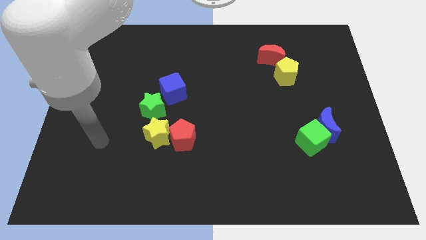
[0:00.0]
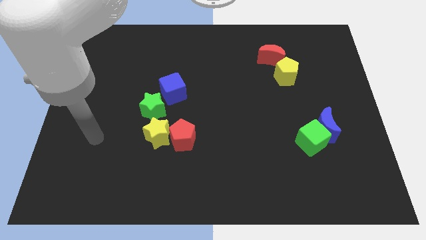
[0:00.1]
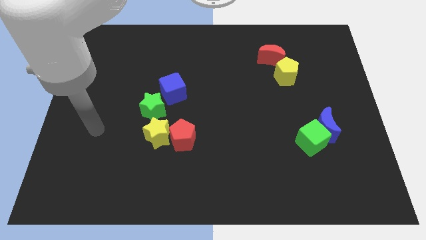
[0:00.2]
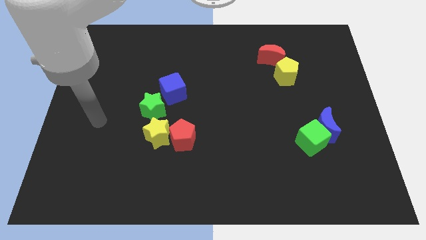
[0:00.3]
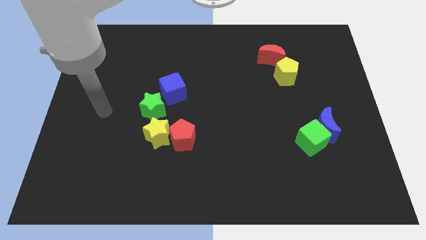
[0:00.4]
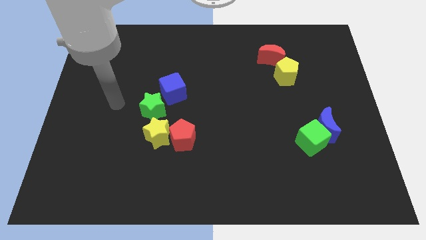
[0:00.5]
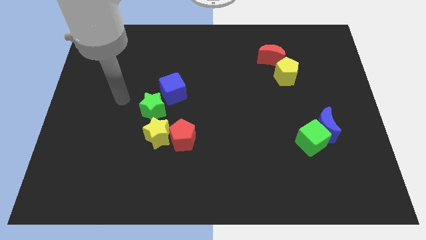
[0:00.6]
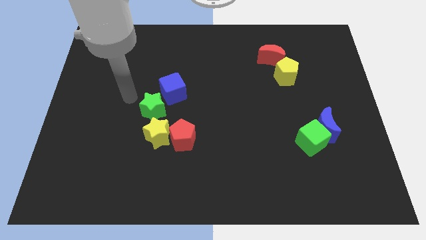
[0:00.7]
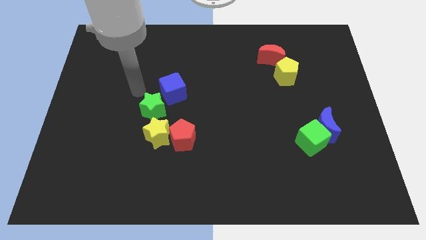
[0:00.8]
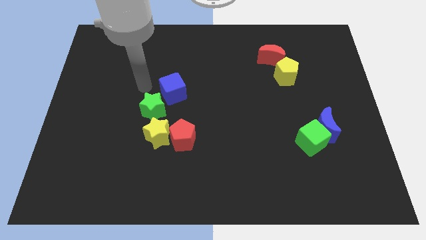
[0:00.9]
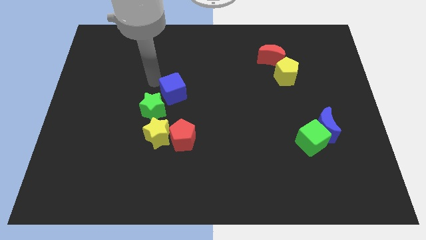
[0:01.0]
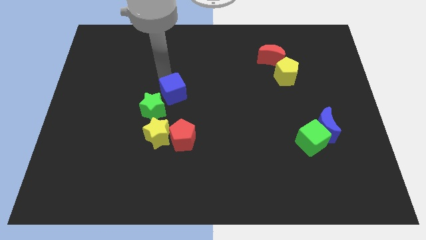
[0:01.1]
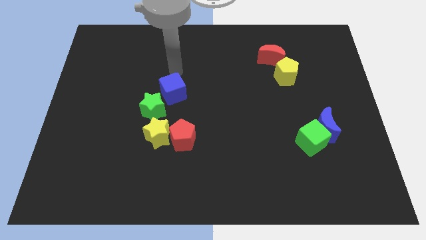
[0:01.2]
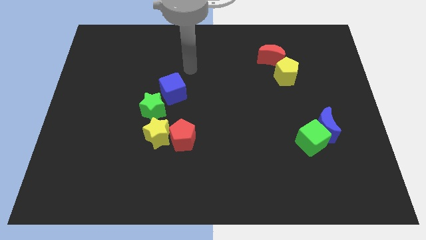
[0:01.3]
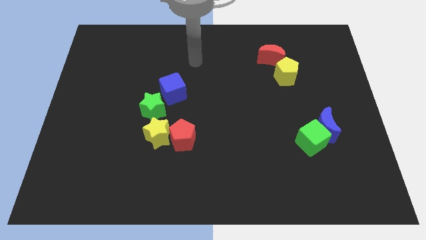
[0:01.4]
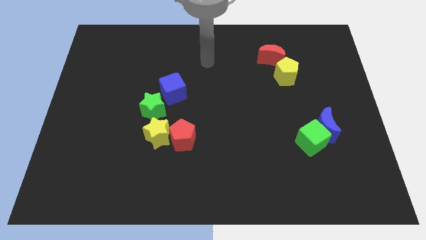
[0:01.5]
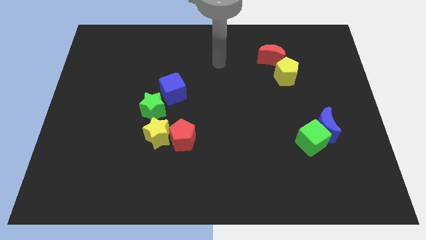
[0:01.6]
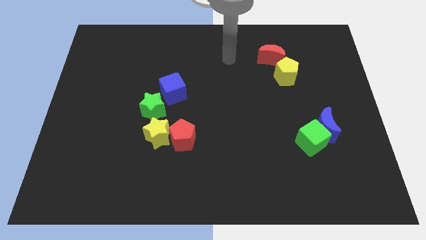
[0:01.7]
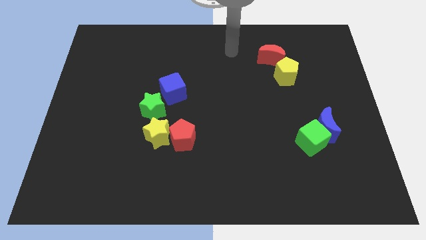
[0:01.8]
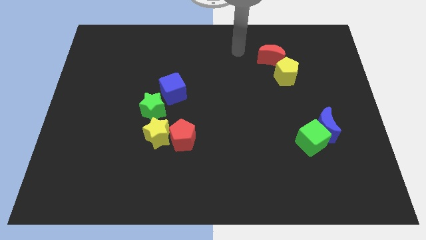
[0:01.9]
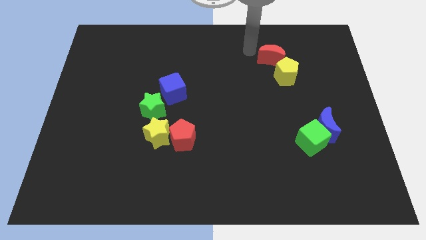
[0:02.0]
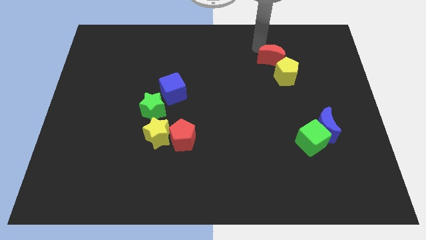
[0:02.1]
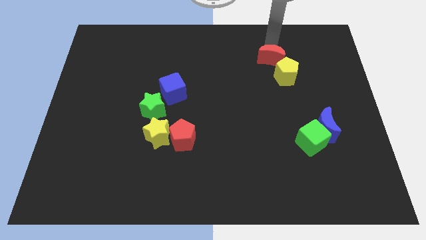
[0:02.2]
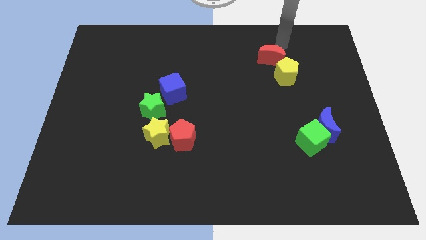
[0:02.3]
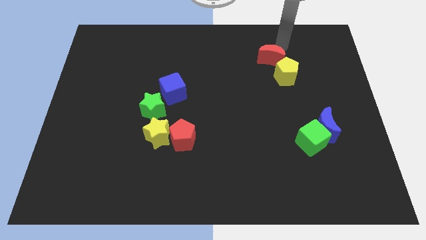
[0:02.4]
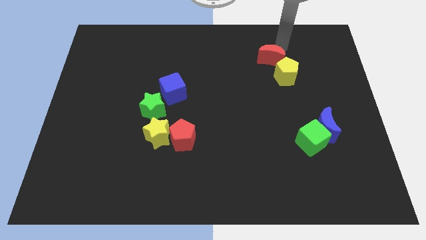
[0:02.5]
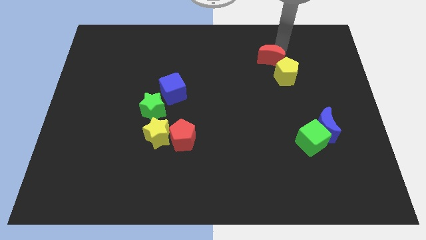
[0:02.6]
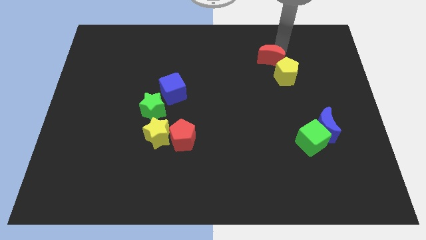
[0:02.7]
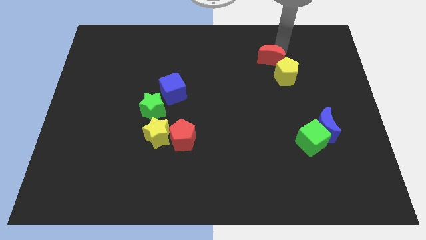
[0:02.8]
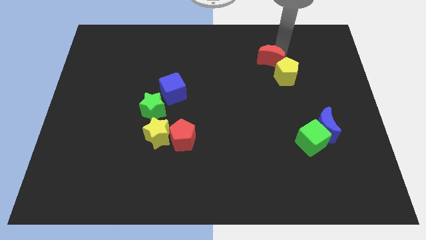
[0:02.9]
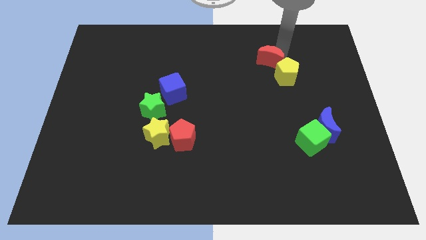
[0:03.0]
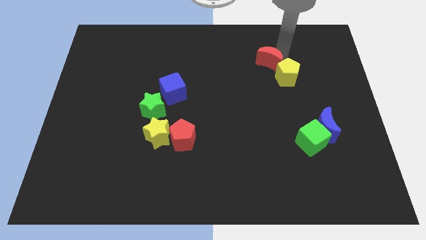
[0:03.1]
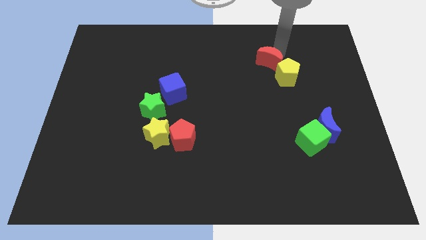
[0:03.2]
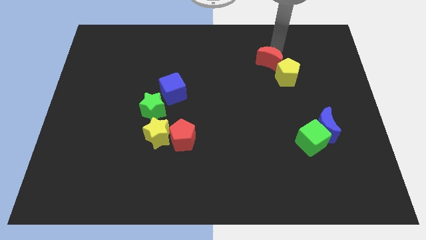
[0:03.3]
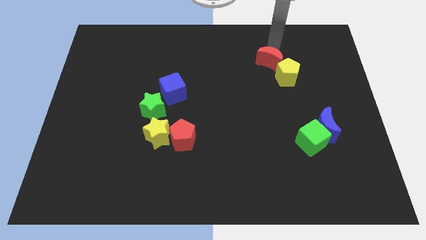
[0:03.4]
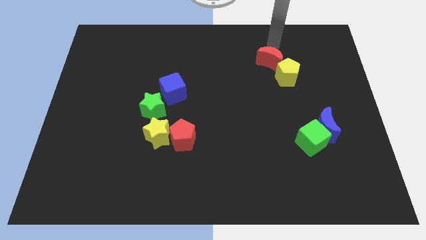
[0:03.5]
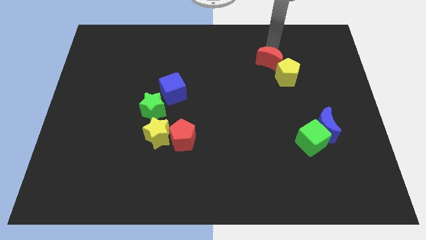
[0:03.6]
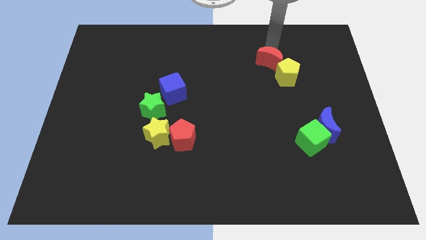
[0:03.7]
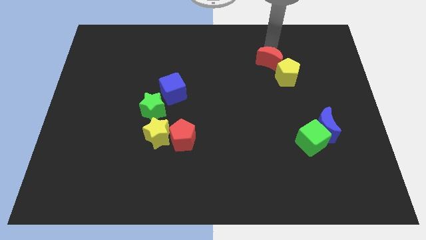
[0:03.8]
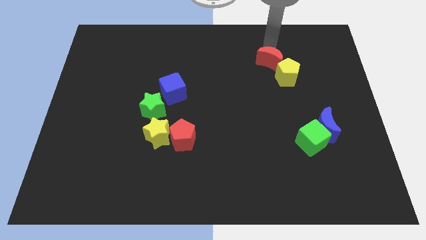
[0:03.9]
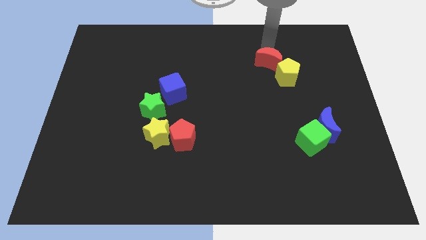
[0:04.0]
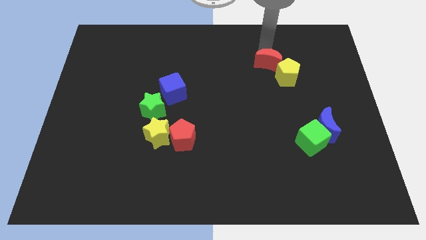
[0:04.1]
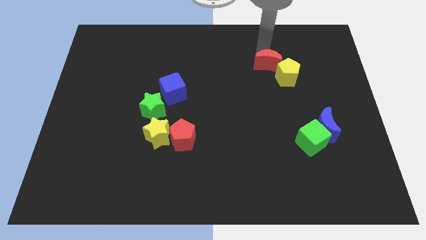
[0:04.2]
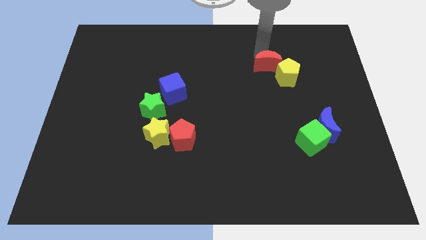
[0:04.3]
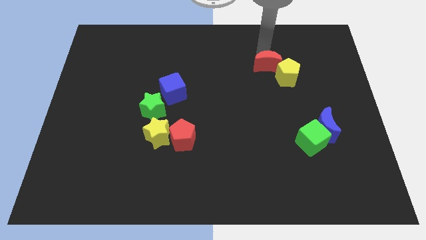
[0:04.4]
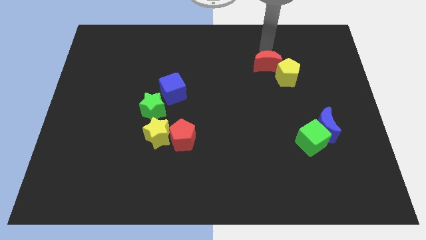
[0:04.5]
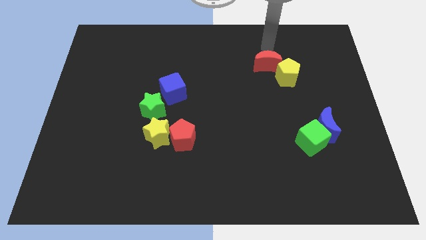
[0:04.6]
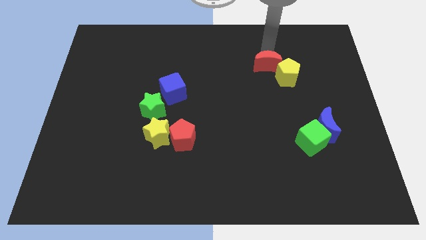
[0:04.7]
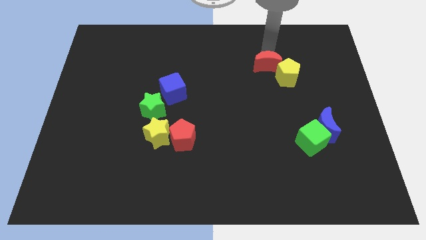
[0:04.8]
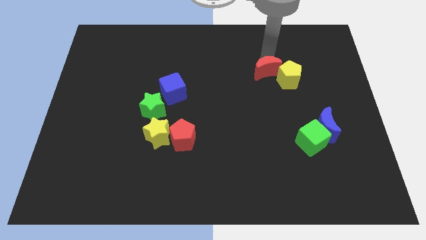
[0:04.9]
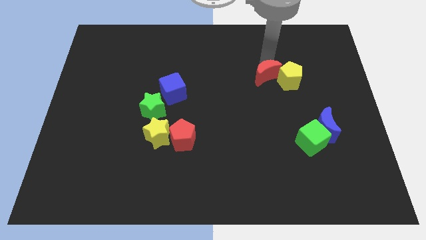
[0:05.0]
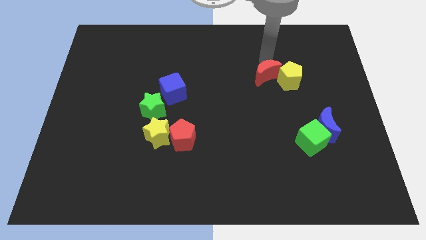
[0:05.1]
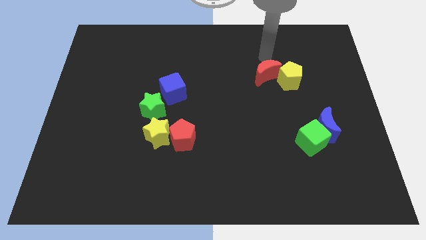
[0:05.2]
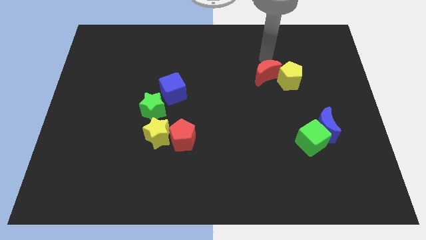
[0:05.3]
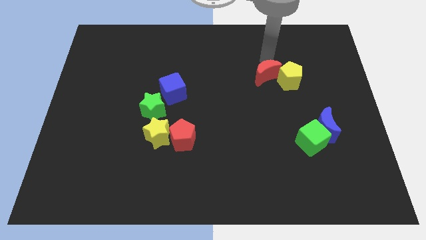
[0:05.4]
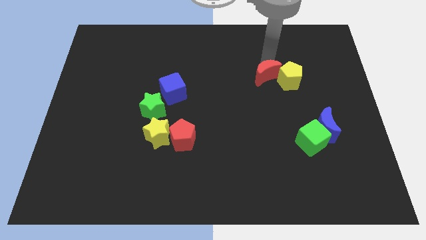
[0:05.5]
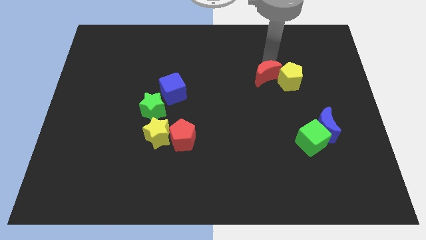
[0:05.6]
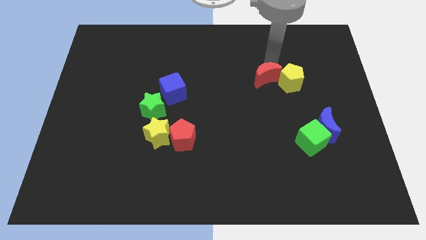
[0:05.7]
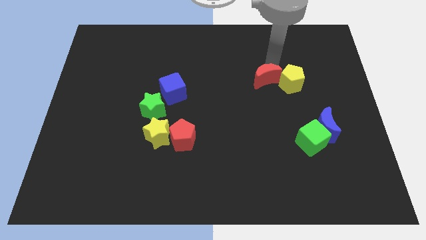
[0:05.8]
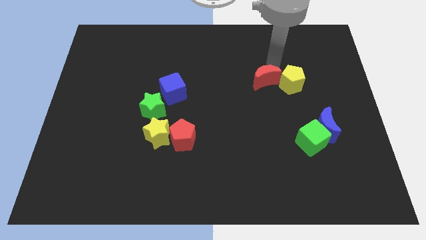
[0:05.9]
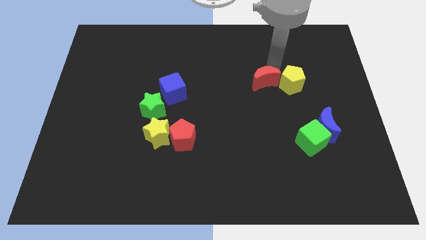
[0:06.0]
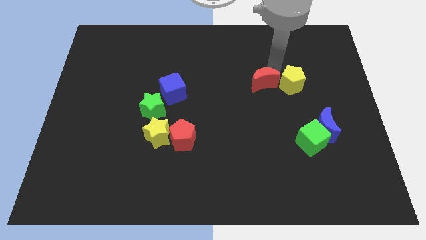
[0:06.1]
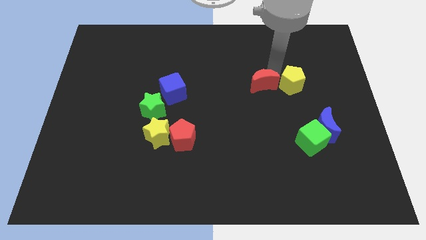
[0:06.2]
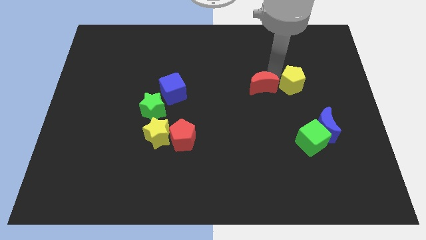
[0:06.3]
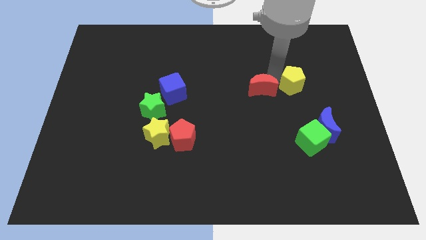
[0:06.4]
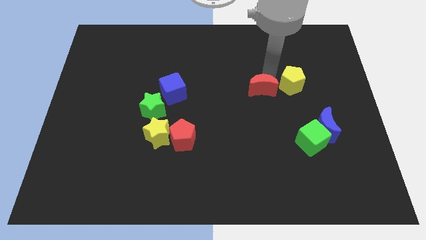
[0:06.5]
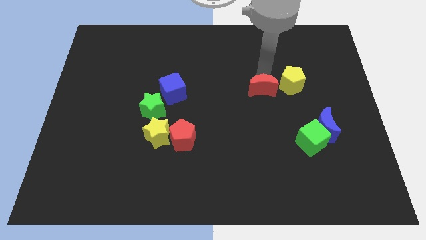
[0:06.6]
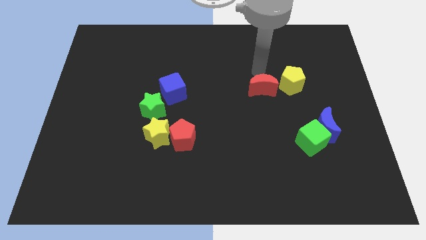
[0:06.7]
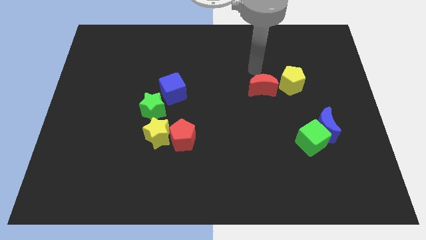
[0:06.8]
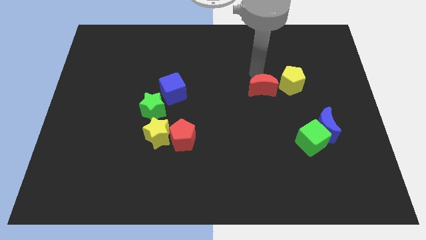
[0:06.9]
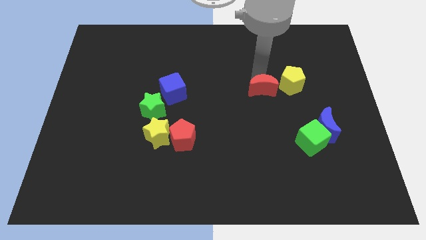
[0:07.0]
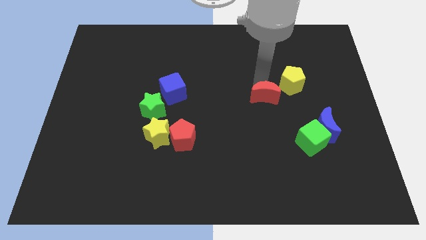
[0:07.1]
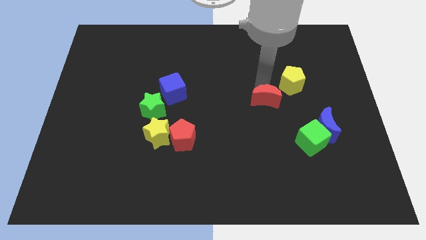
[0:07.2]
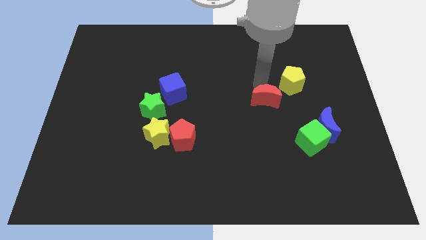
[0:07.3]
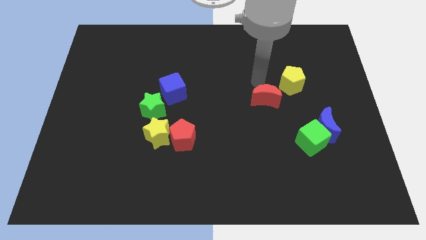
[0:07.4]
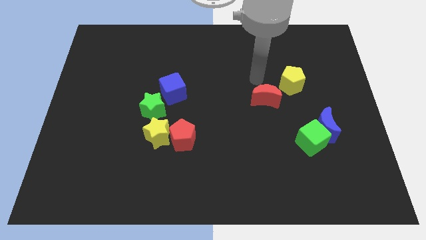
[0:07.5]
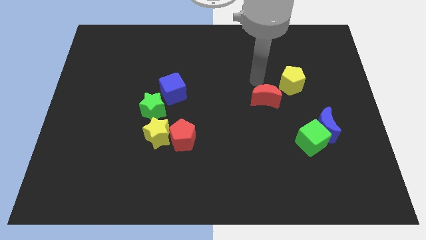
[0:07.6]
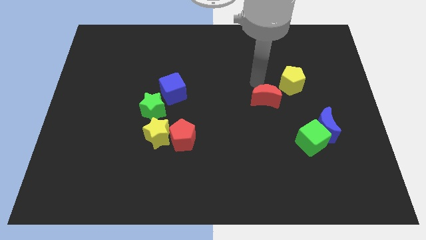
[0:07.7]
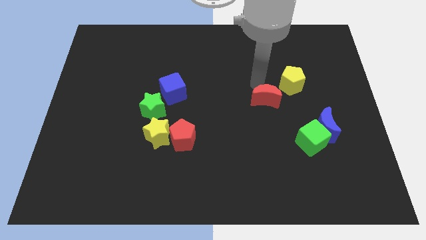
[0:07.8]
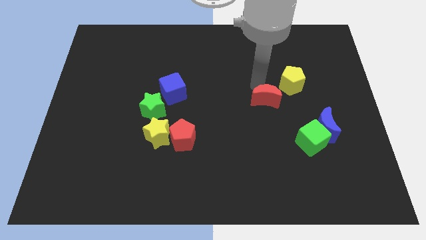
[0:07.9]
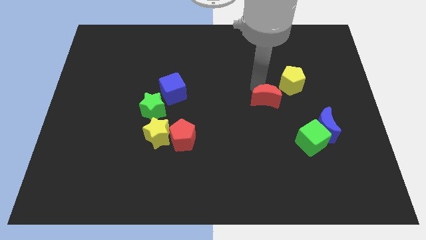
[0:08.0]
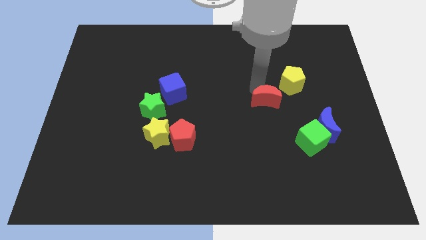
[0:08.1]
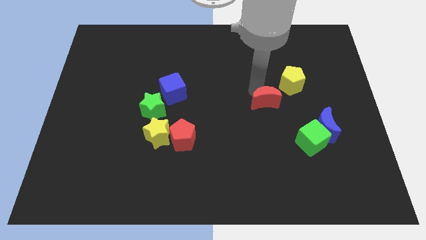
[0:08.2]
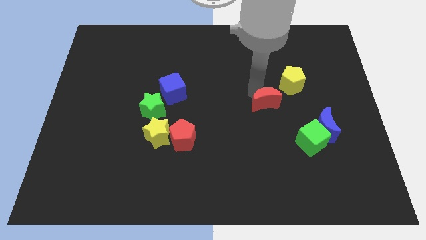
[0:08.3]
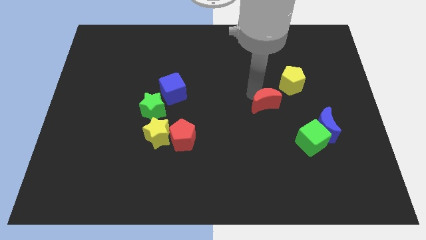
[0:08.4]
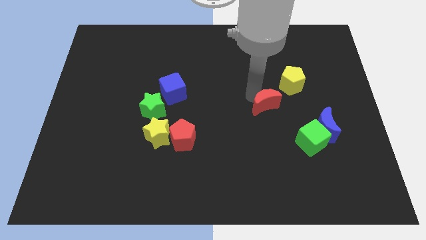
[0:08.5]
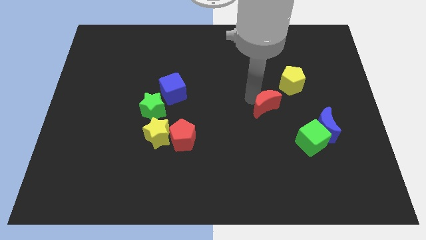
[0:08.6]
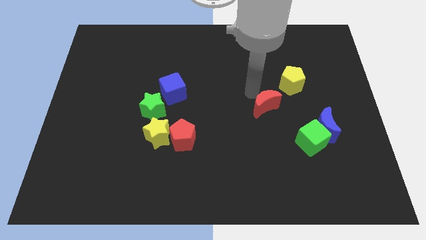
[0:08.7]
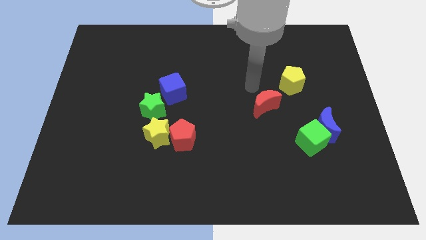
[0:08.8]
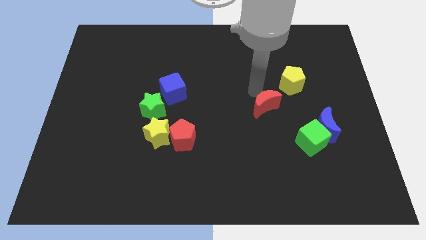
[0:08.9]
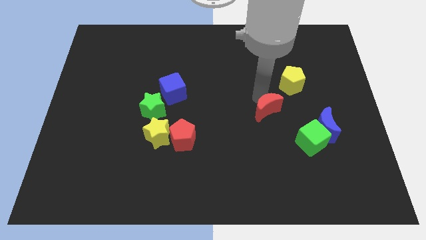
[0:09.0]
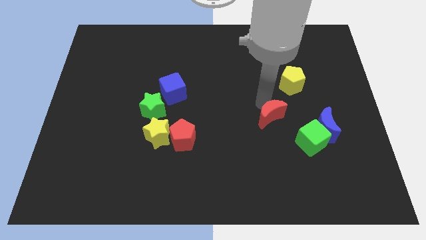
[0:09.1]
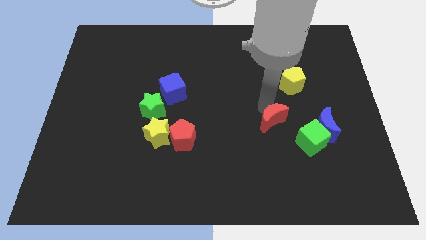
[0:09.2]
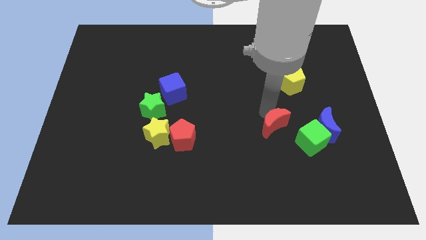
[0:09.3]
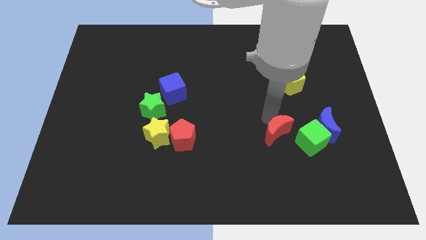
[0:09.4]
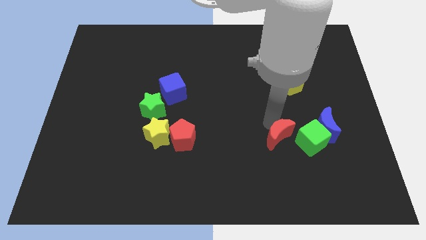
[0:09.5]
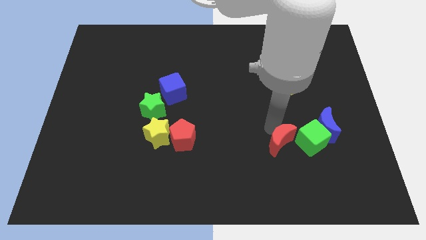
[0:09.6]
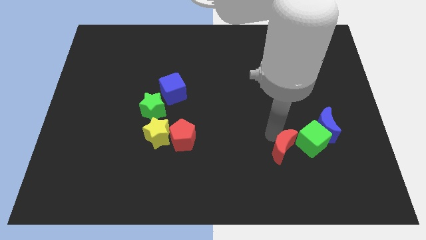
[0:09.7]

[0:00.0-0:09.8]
slide the red moon to the bottom left side of the blue moon
